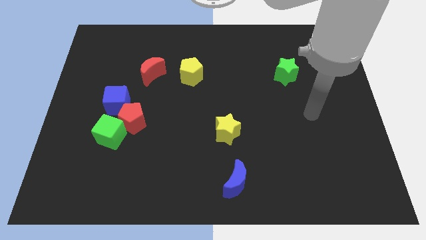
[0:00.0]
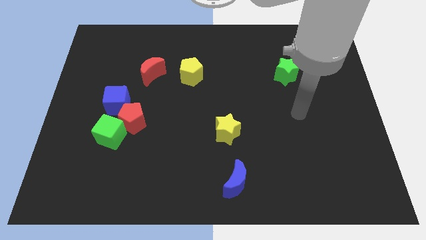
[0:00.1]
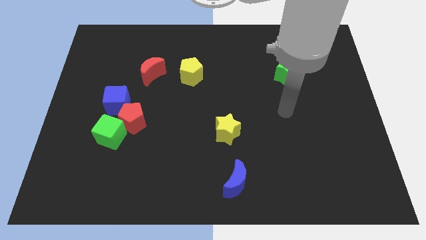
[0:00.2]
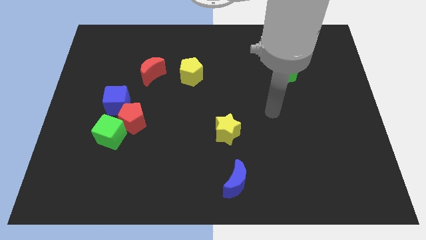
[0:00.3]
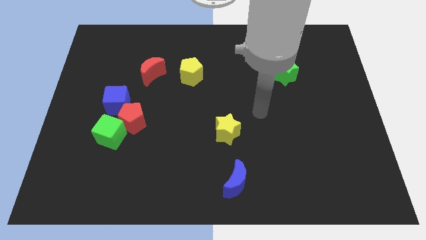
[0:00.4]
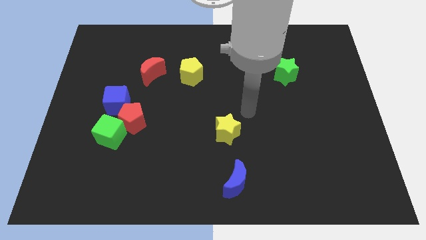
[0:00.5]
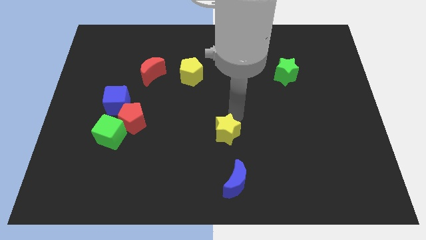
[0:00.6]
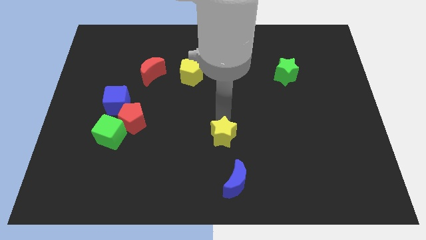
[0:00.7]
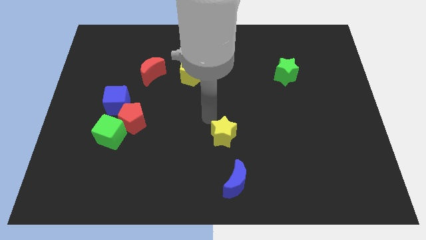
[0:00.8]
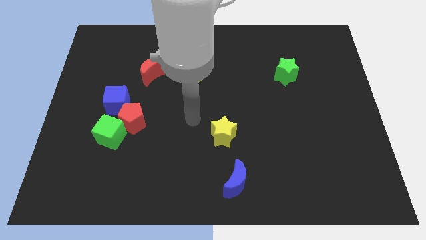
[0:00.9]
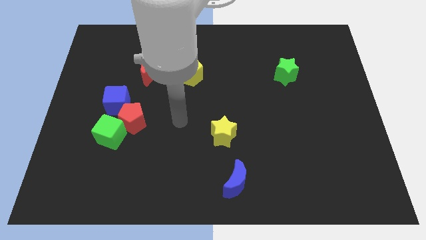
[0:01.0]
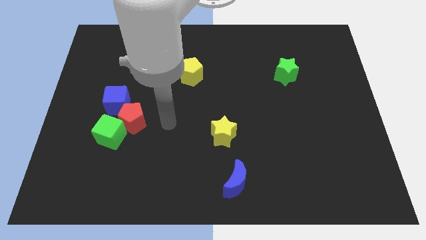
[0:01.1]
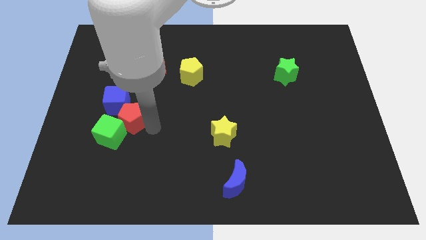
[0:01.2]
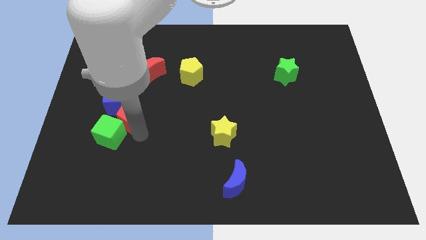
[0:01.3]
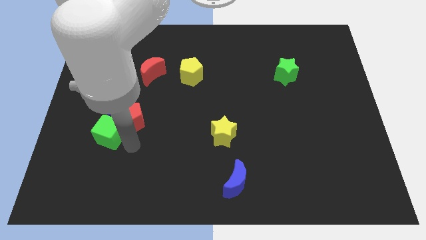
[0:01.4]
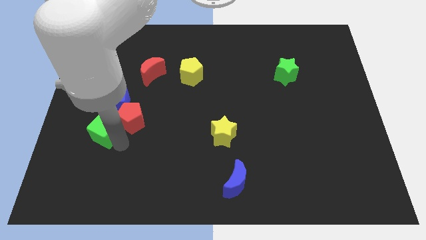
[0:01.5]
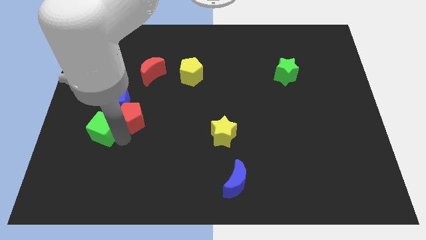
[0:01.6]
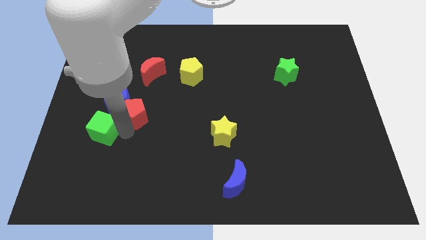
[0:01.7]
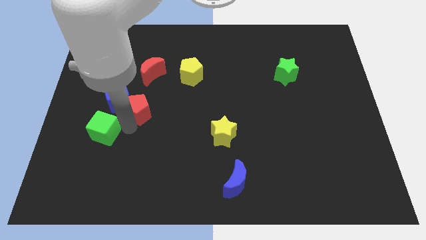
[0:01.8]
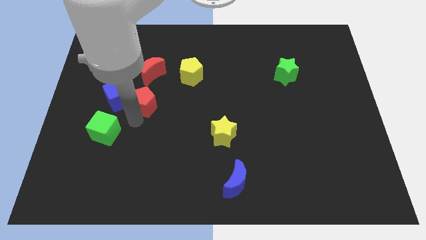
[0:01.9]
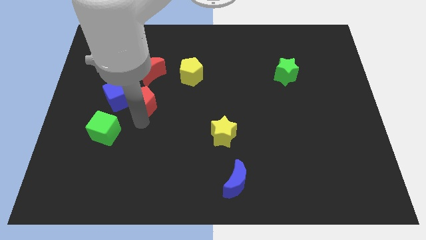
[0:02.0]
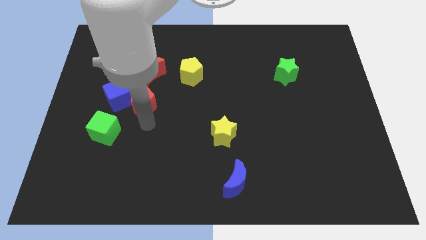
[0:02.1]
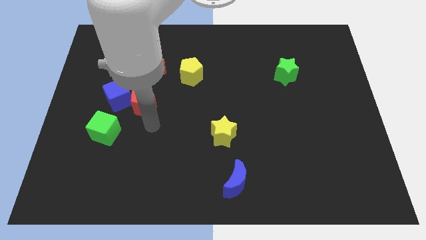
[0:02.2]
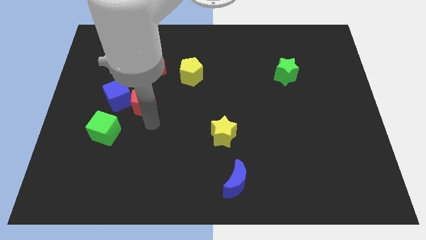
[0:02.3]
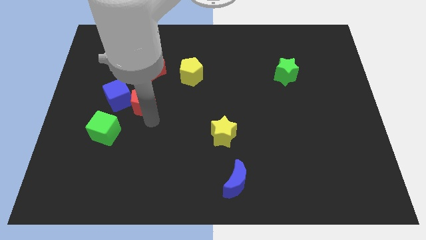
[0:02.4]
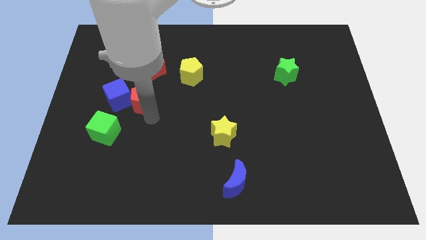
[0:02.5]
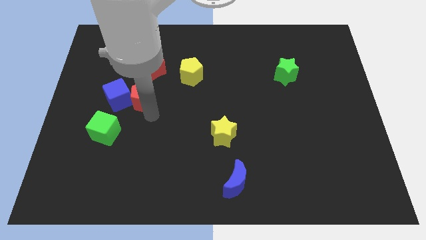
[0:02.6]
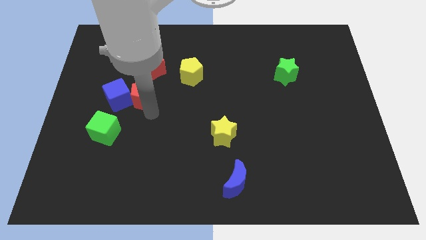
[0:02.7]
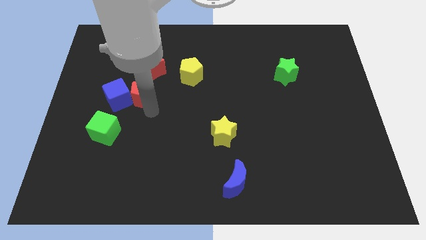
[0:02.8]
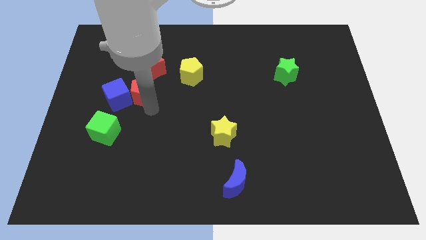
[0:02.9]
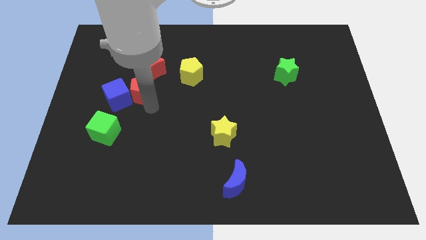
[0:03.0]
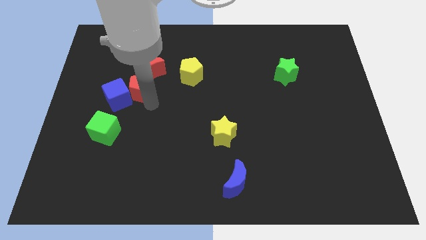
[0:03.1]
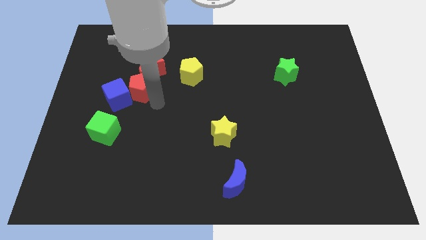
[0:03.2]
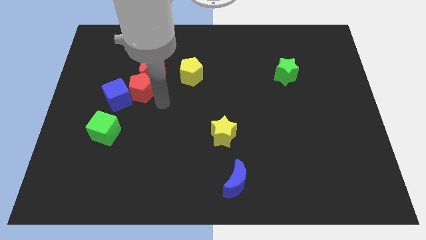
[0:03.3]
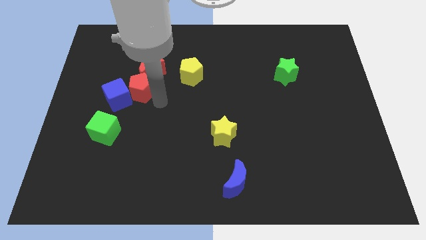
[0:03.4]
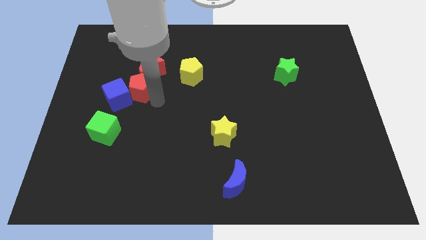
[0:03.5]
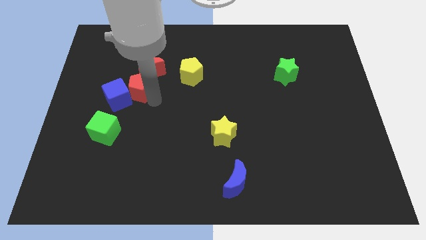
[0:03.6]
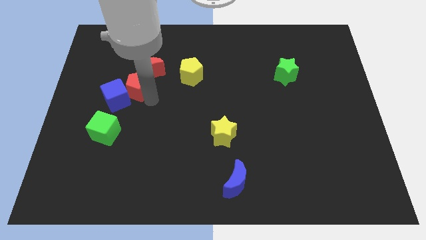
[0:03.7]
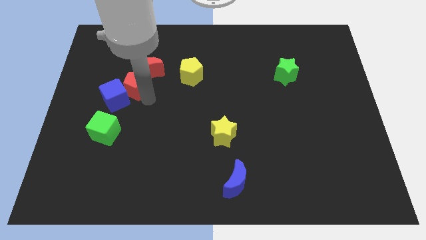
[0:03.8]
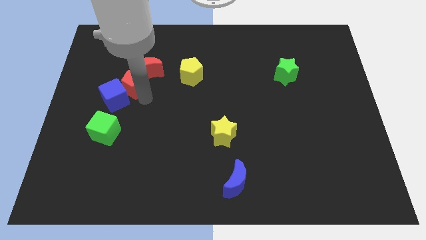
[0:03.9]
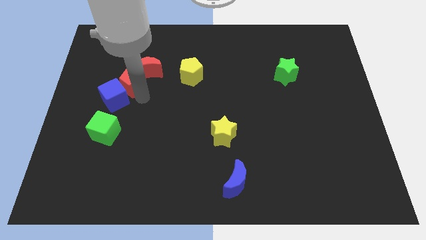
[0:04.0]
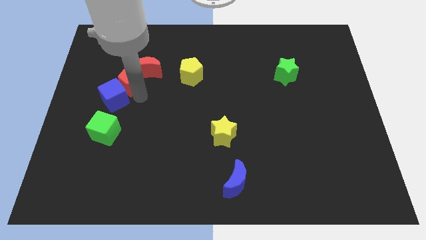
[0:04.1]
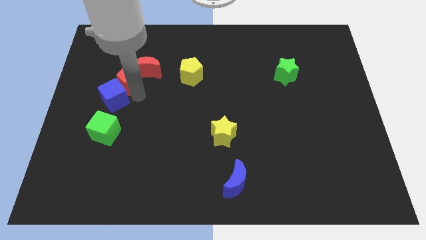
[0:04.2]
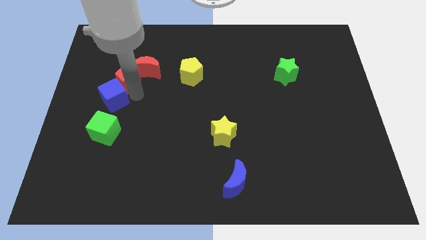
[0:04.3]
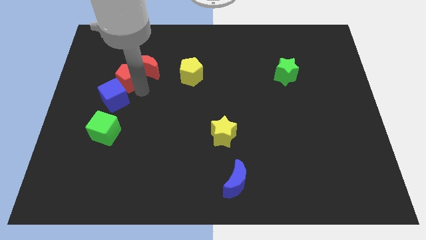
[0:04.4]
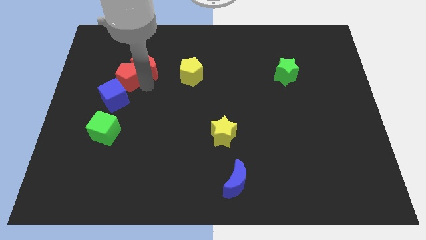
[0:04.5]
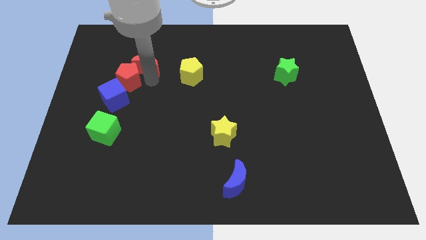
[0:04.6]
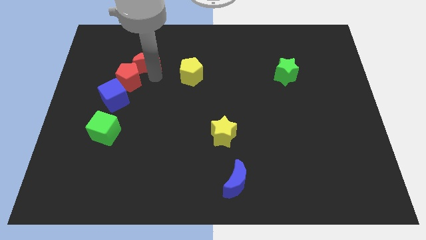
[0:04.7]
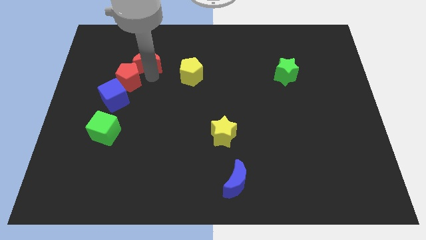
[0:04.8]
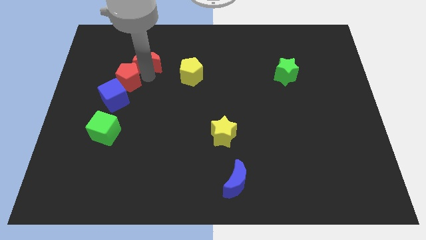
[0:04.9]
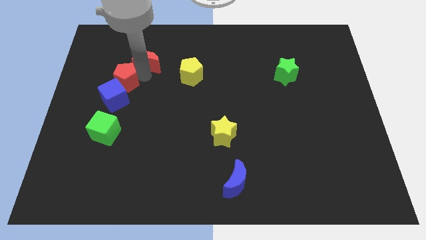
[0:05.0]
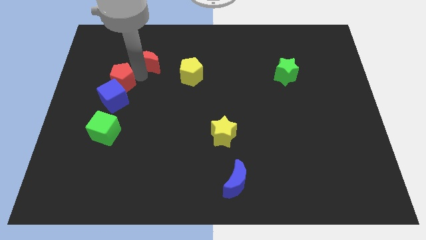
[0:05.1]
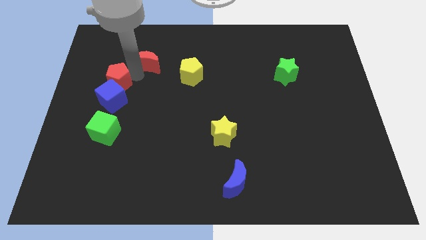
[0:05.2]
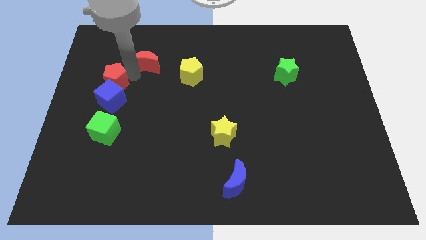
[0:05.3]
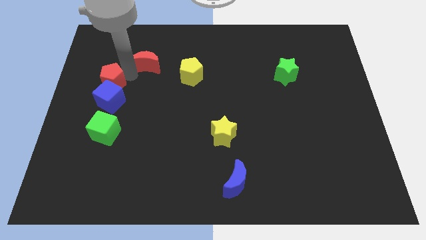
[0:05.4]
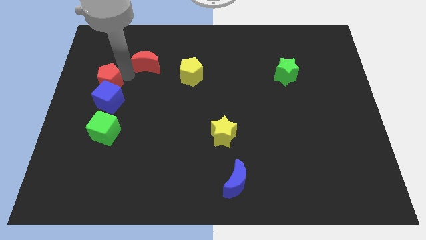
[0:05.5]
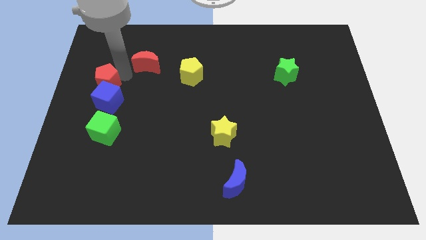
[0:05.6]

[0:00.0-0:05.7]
push the red pentagon to the center left
